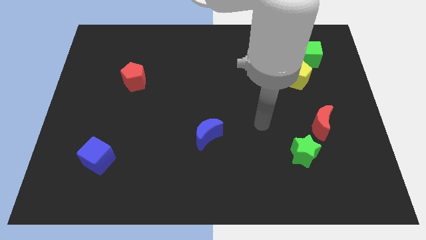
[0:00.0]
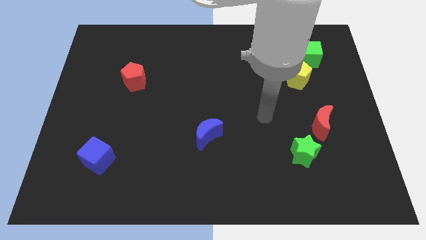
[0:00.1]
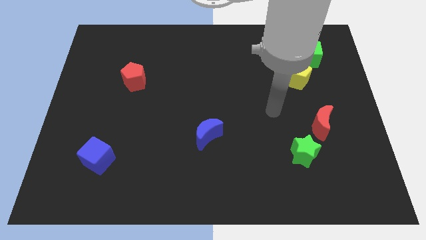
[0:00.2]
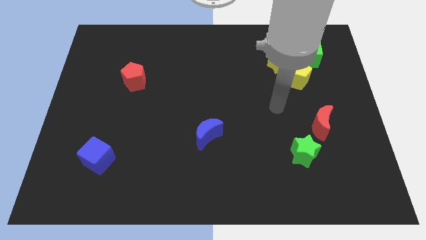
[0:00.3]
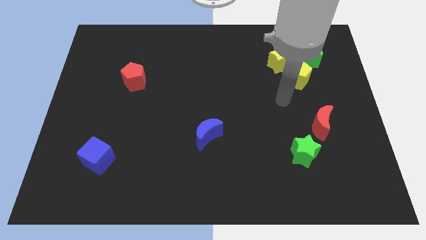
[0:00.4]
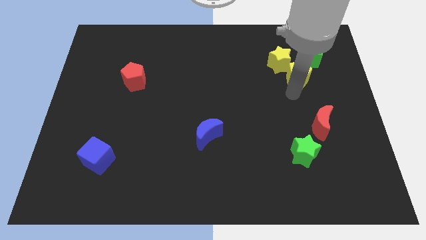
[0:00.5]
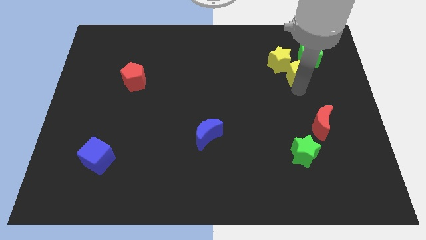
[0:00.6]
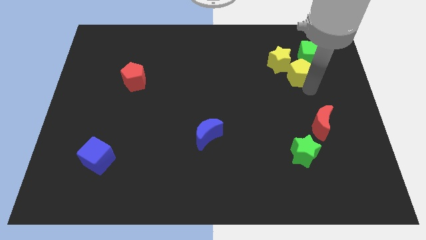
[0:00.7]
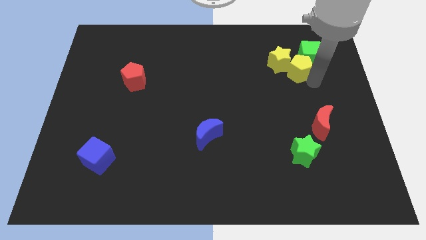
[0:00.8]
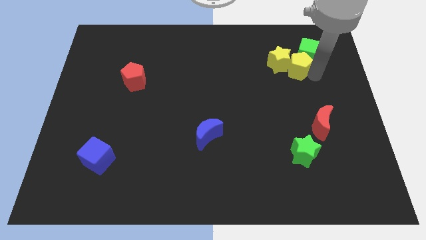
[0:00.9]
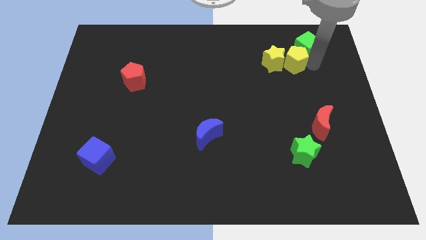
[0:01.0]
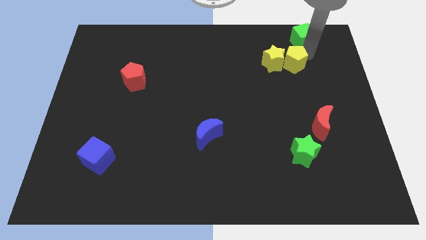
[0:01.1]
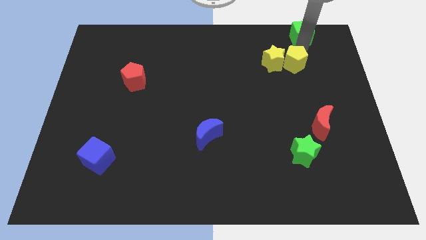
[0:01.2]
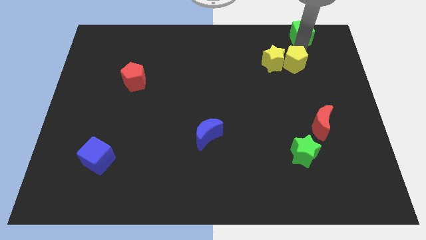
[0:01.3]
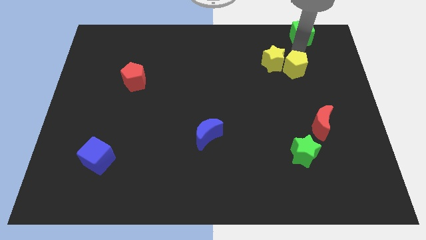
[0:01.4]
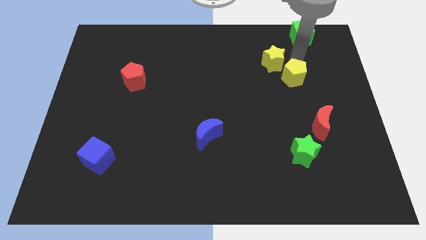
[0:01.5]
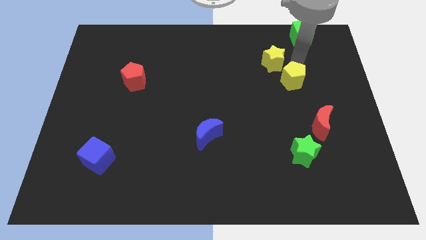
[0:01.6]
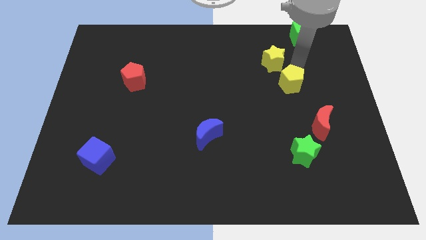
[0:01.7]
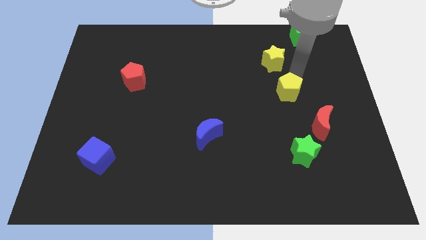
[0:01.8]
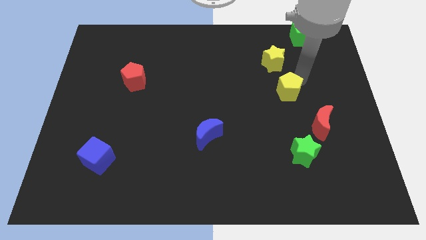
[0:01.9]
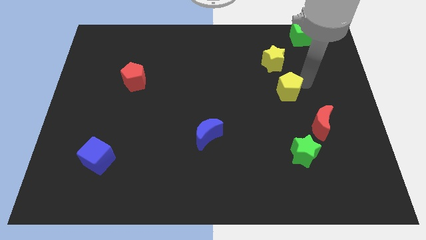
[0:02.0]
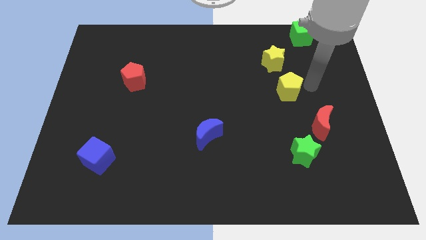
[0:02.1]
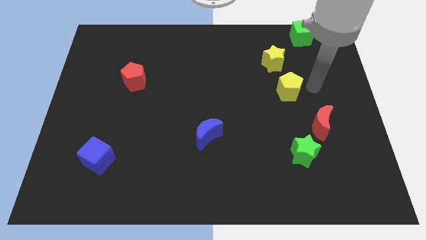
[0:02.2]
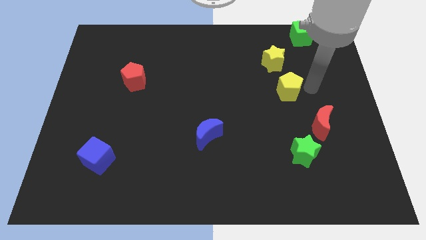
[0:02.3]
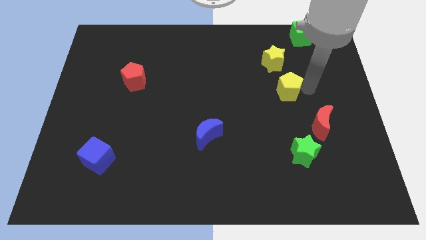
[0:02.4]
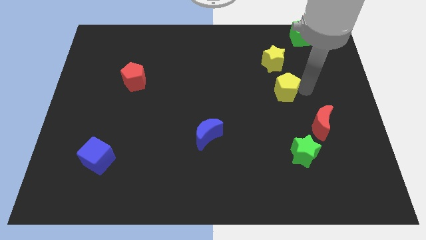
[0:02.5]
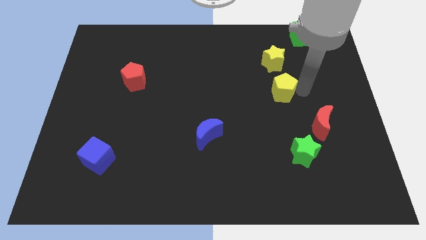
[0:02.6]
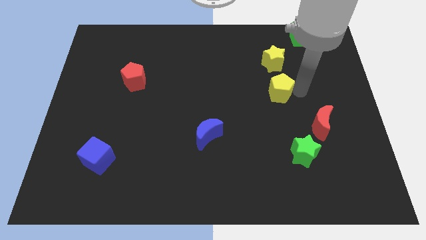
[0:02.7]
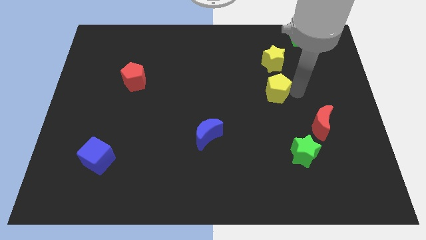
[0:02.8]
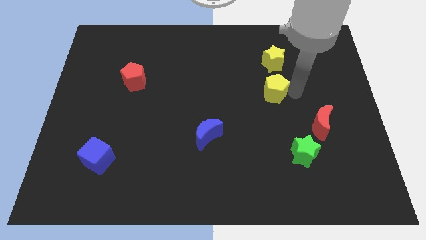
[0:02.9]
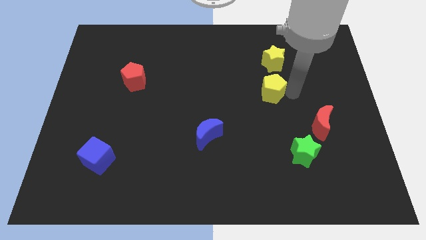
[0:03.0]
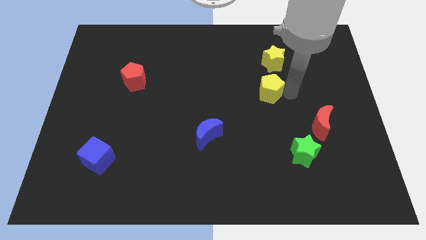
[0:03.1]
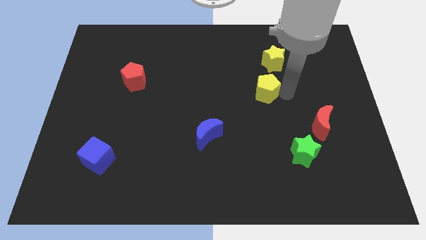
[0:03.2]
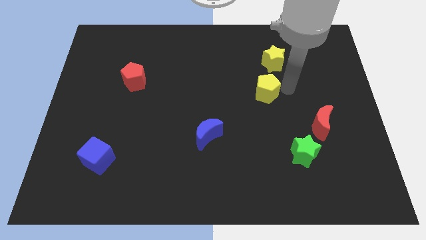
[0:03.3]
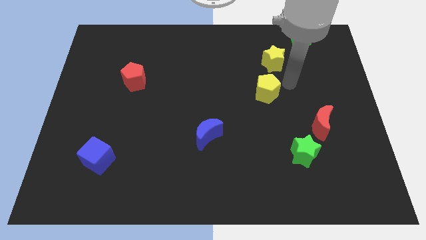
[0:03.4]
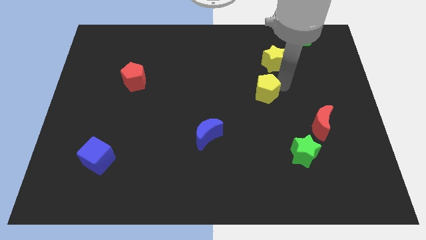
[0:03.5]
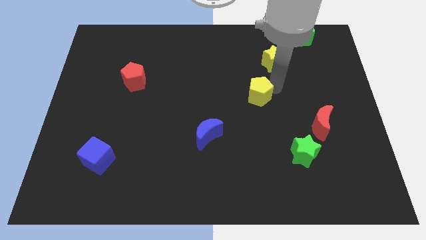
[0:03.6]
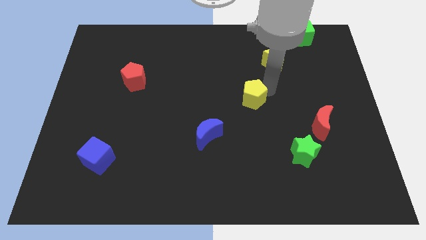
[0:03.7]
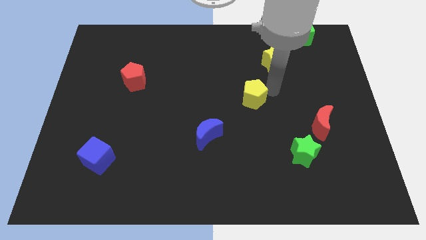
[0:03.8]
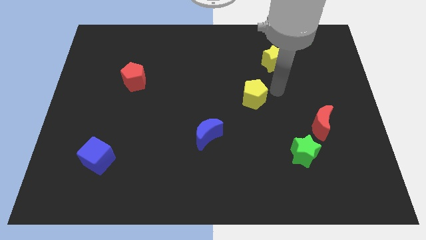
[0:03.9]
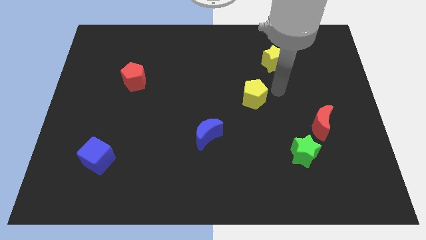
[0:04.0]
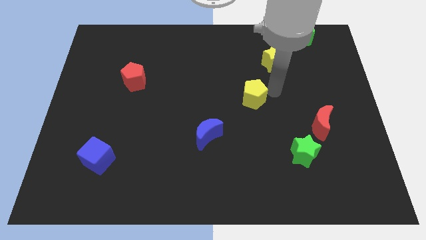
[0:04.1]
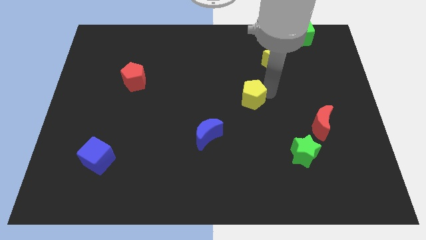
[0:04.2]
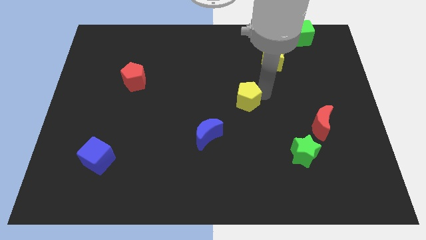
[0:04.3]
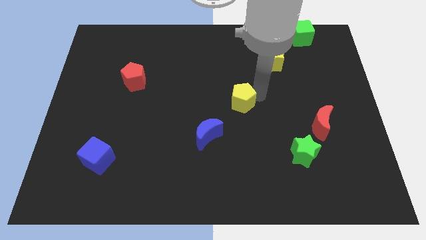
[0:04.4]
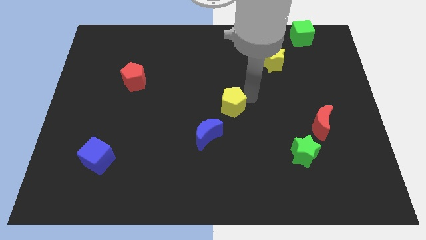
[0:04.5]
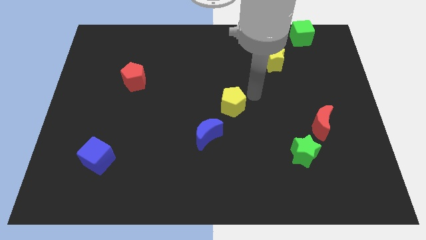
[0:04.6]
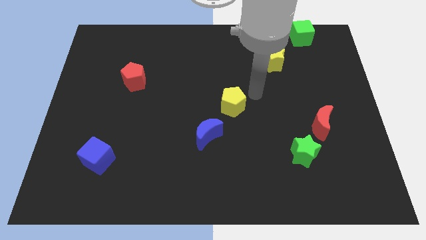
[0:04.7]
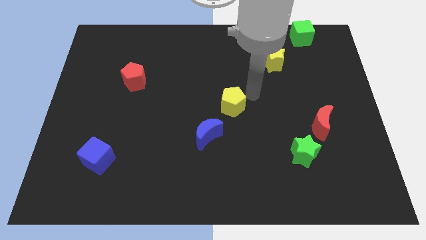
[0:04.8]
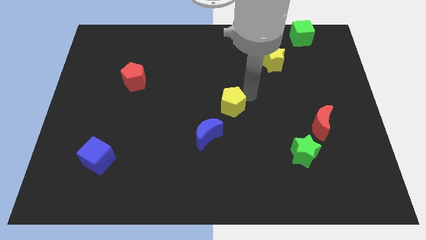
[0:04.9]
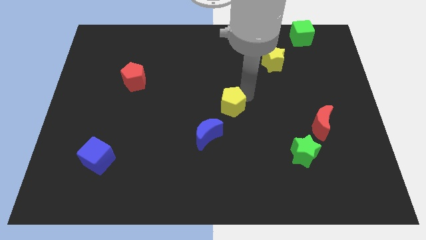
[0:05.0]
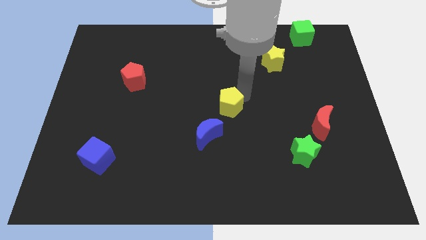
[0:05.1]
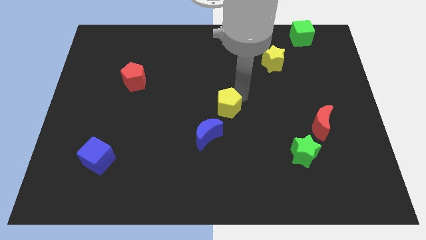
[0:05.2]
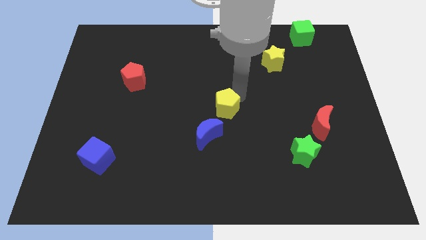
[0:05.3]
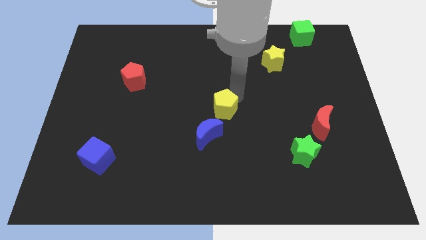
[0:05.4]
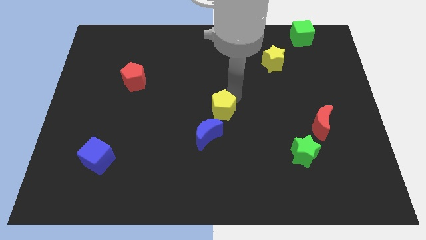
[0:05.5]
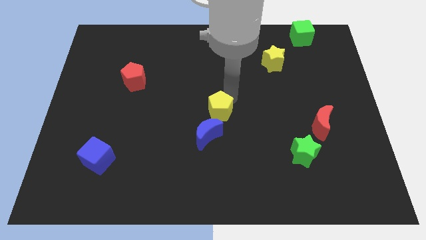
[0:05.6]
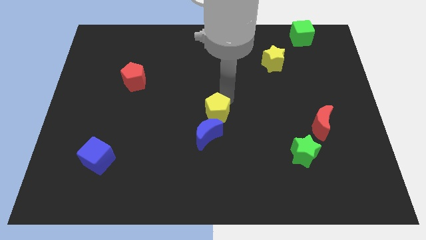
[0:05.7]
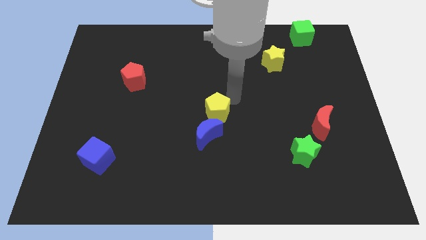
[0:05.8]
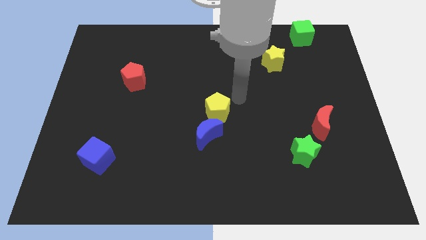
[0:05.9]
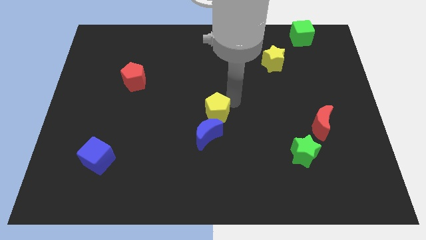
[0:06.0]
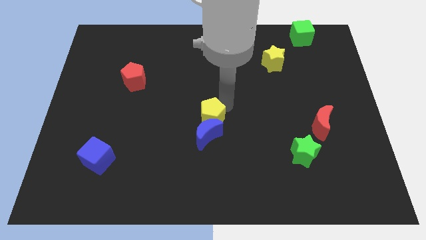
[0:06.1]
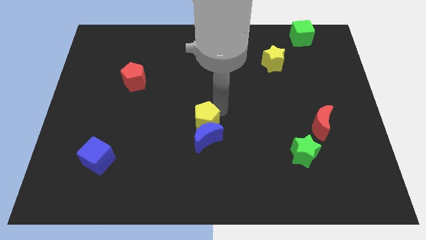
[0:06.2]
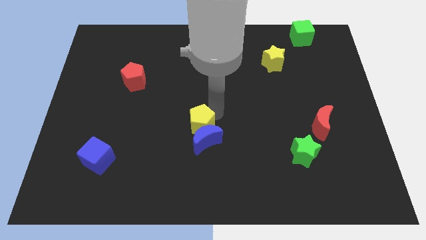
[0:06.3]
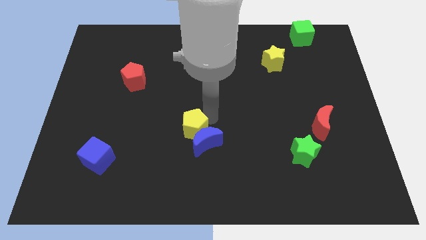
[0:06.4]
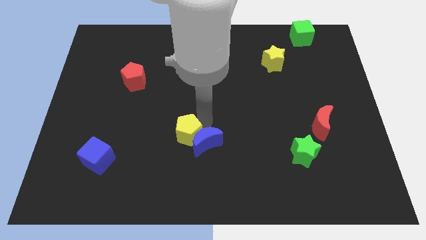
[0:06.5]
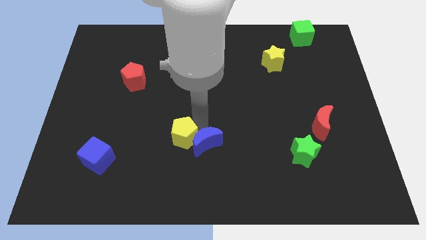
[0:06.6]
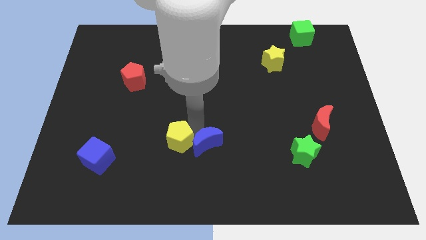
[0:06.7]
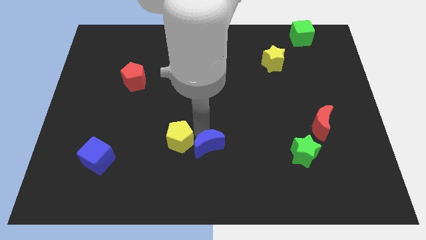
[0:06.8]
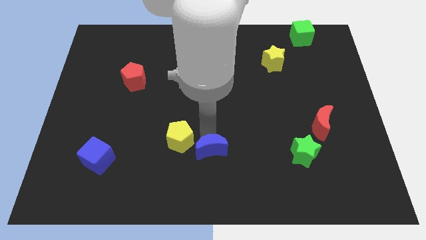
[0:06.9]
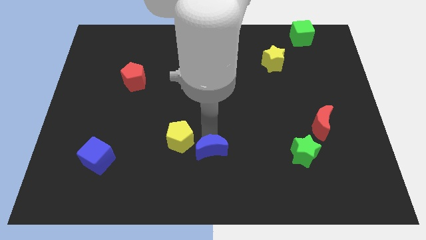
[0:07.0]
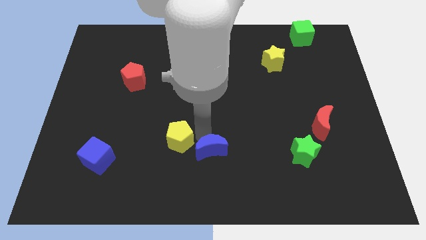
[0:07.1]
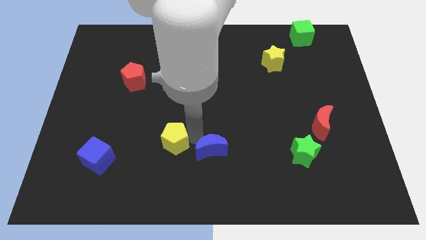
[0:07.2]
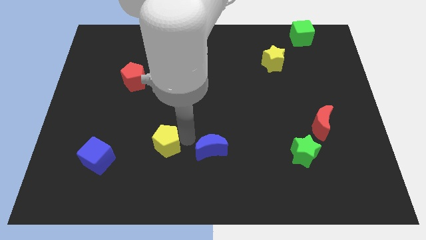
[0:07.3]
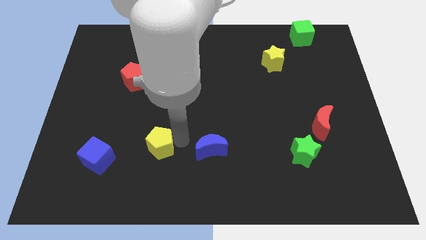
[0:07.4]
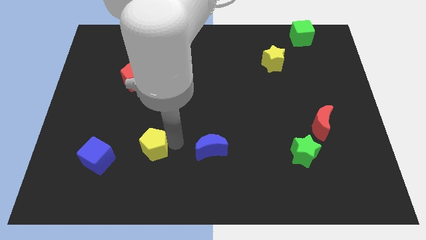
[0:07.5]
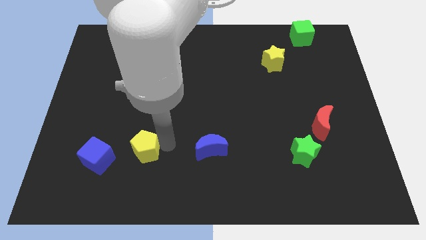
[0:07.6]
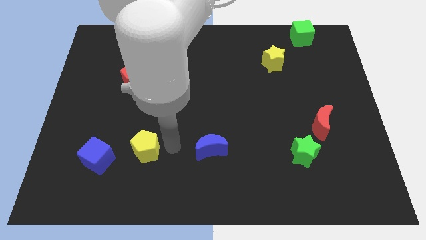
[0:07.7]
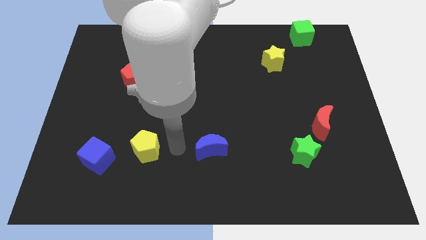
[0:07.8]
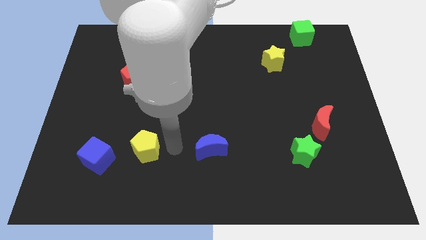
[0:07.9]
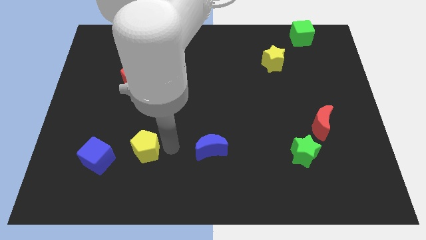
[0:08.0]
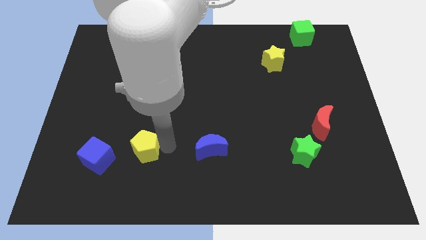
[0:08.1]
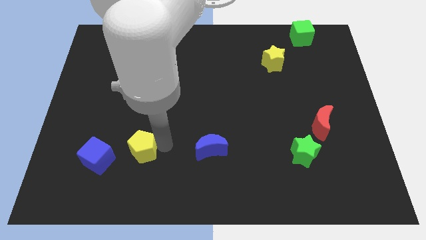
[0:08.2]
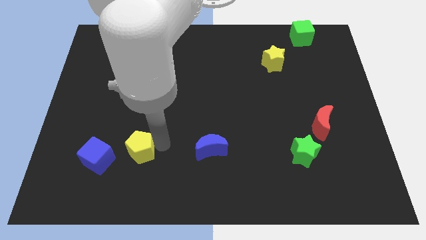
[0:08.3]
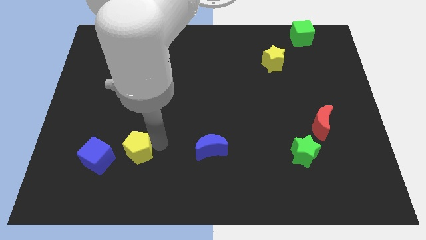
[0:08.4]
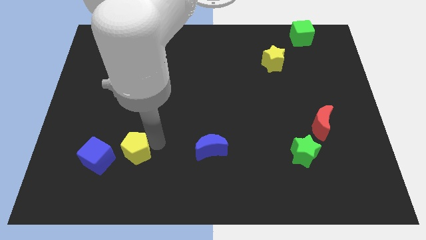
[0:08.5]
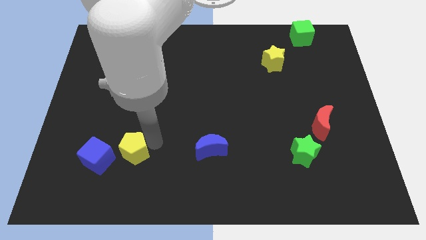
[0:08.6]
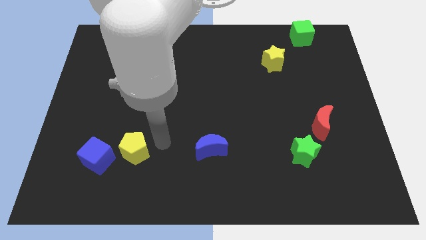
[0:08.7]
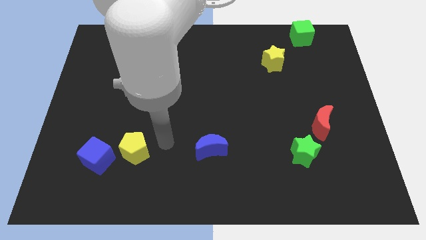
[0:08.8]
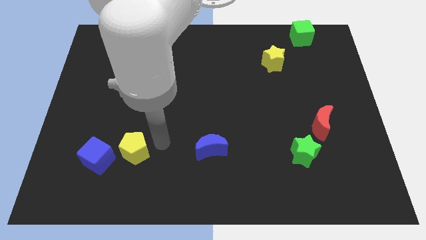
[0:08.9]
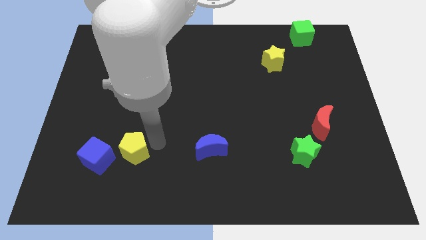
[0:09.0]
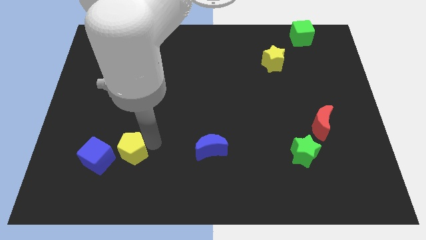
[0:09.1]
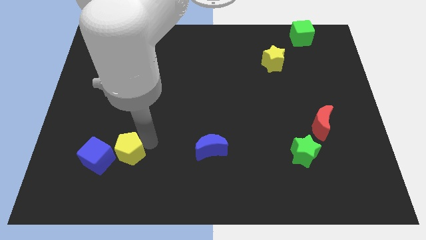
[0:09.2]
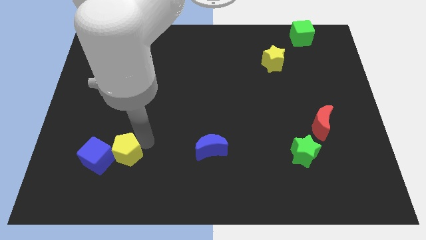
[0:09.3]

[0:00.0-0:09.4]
push the yellow pentagon towards the blue cube
